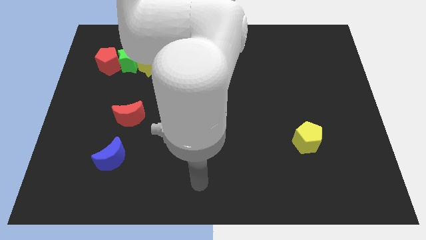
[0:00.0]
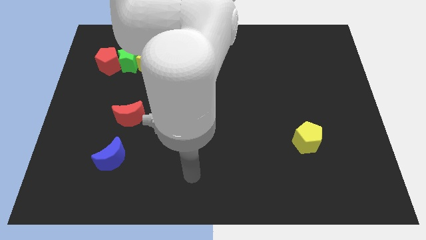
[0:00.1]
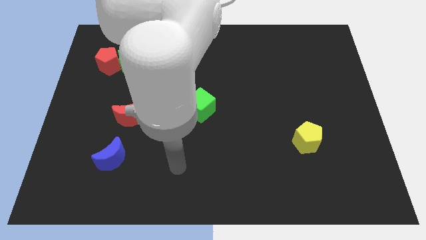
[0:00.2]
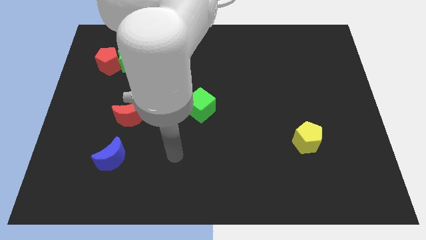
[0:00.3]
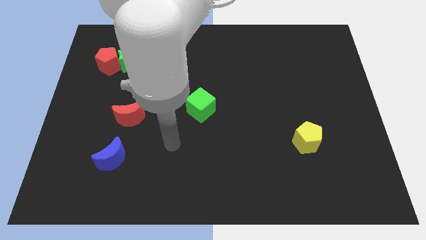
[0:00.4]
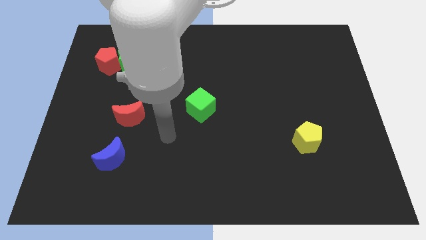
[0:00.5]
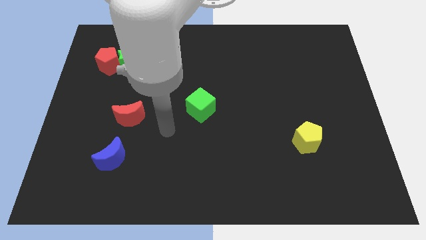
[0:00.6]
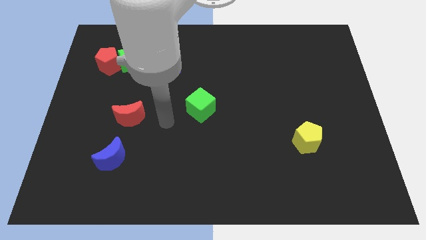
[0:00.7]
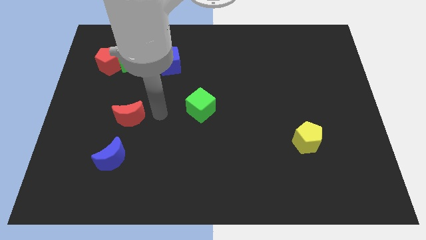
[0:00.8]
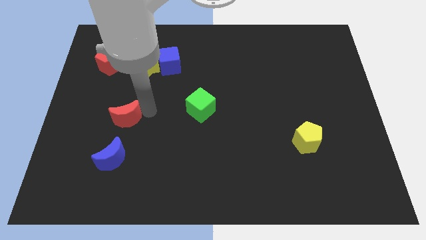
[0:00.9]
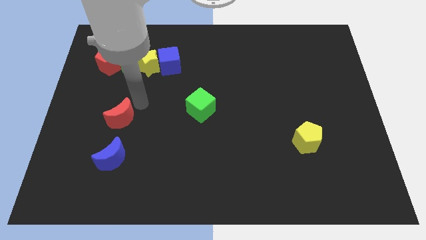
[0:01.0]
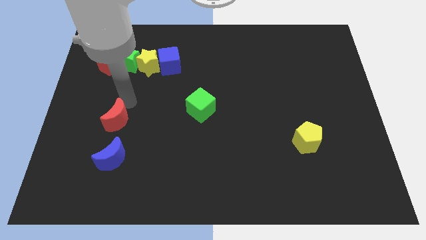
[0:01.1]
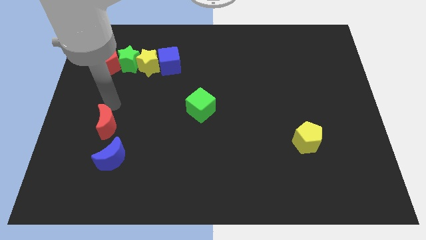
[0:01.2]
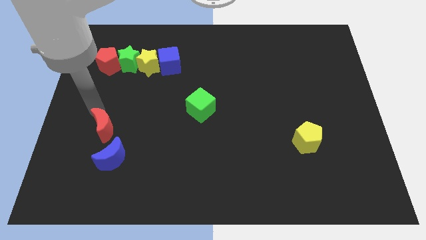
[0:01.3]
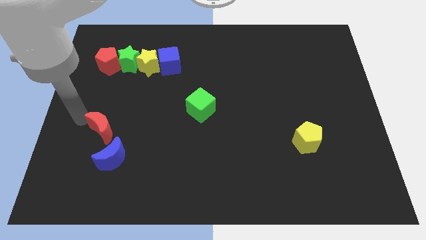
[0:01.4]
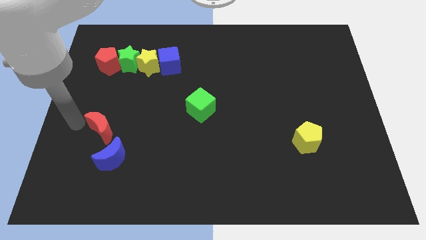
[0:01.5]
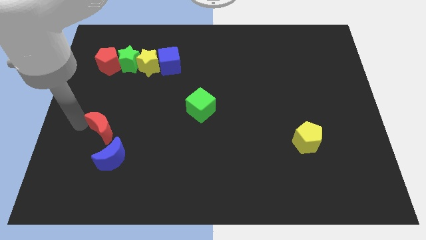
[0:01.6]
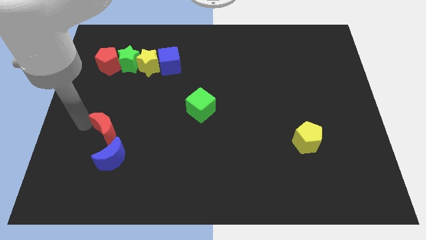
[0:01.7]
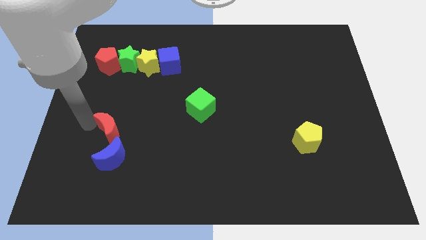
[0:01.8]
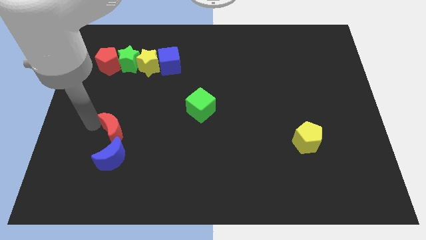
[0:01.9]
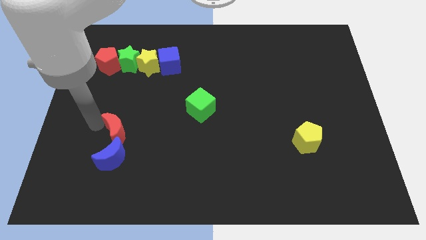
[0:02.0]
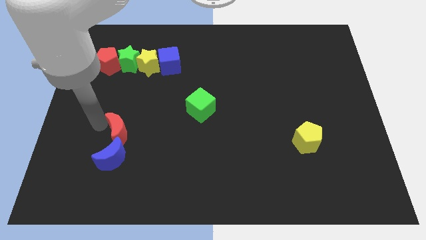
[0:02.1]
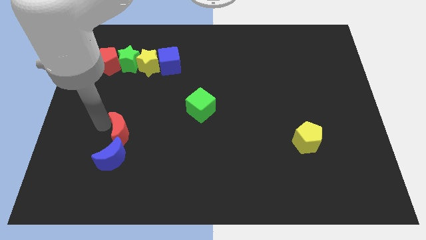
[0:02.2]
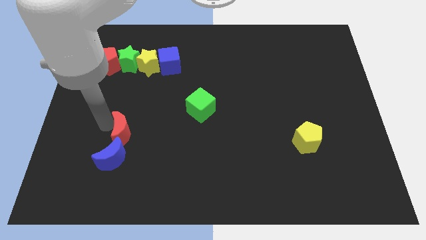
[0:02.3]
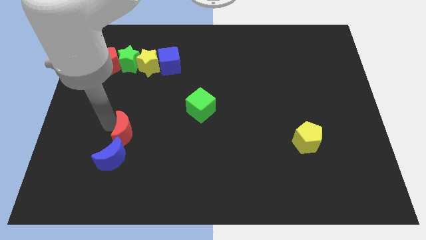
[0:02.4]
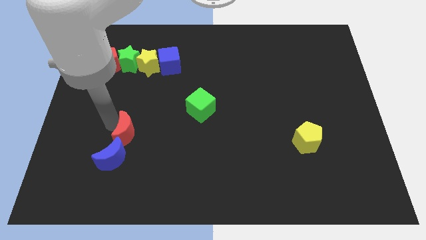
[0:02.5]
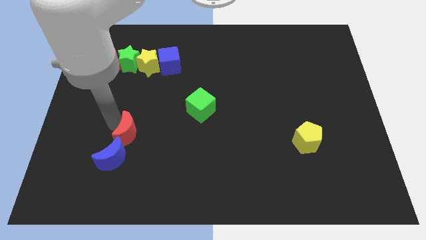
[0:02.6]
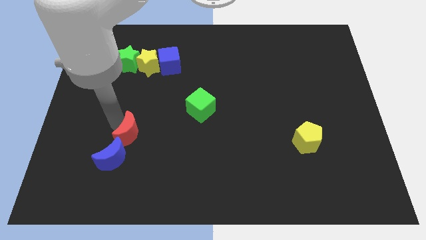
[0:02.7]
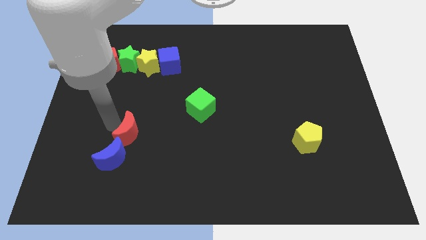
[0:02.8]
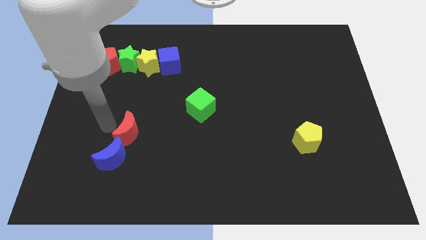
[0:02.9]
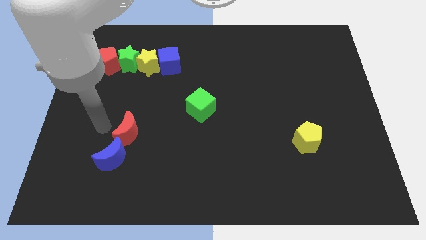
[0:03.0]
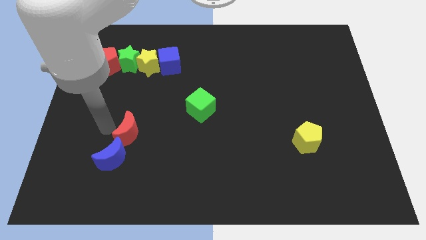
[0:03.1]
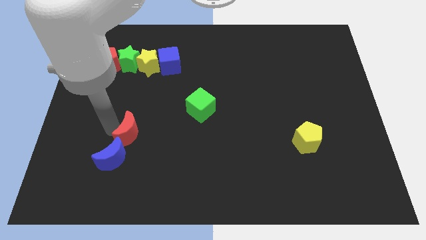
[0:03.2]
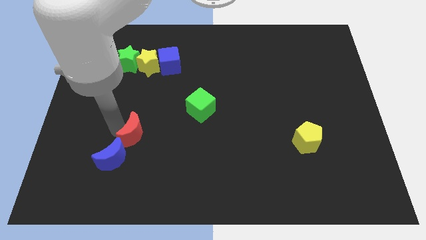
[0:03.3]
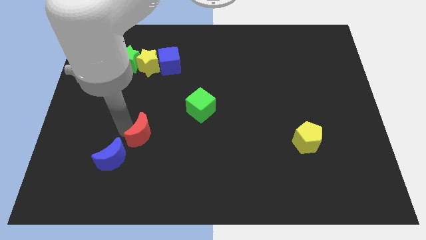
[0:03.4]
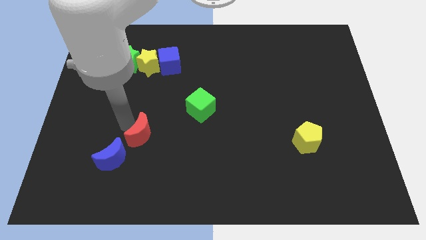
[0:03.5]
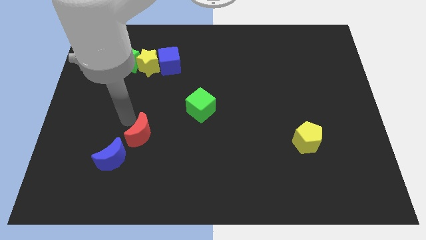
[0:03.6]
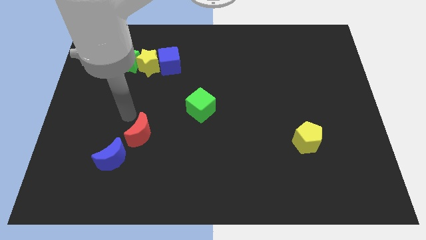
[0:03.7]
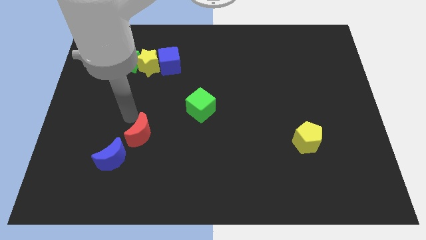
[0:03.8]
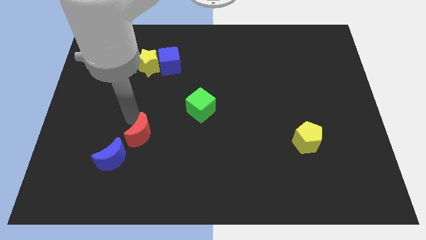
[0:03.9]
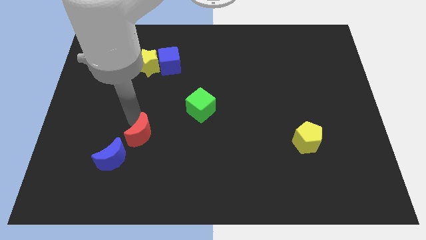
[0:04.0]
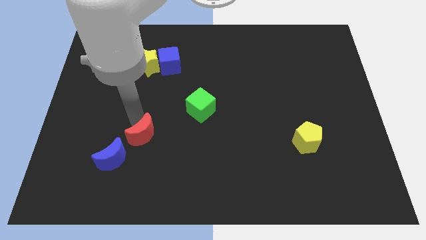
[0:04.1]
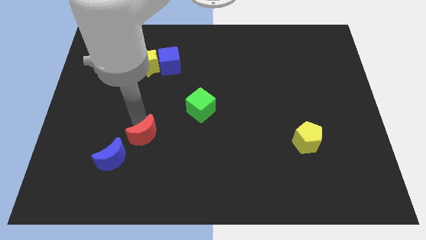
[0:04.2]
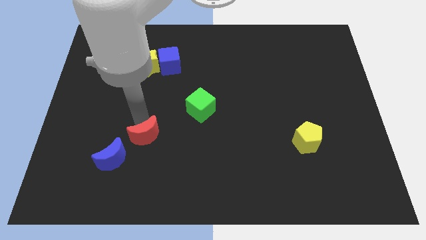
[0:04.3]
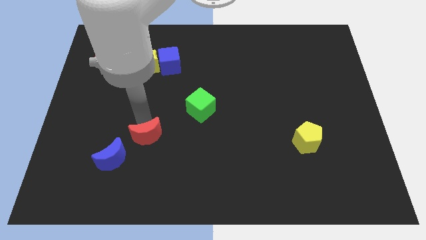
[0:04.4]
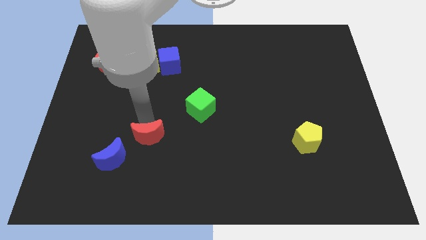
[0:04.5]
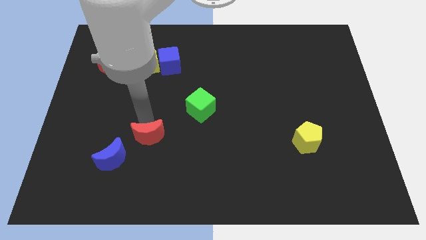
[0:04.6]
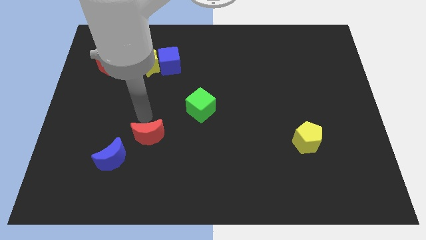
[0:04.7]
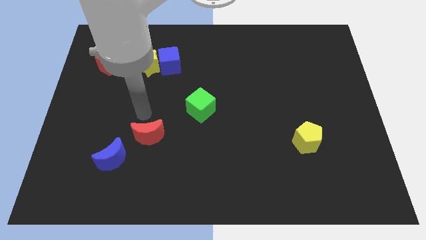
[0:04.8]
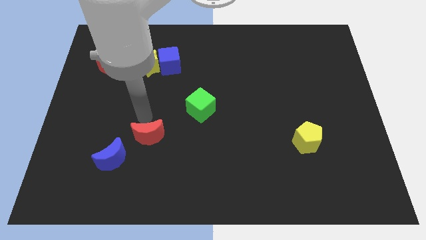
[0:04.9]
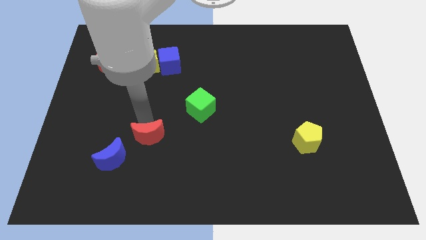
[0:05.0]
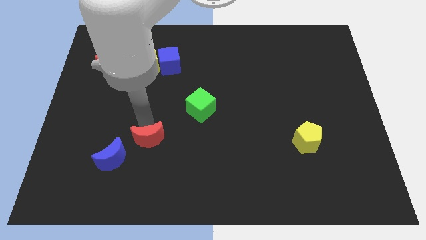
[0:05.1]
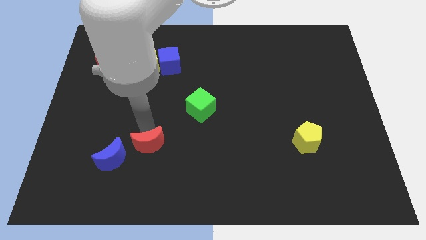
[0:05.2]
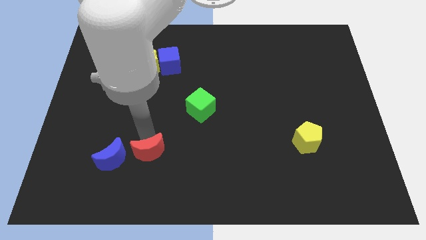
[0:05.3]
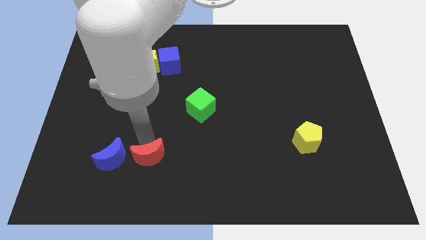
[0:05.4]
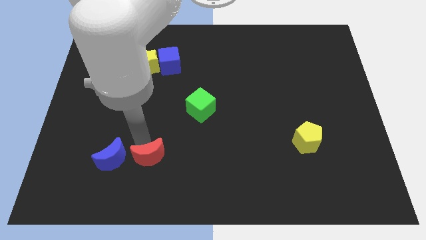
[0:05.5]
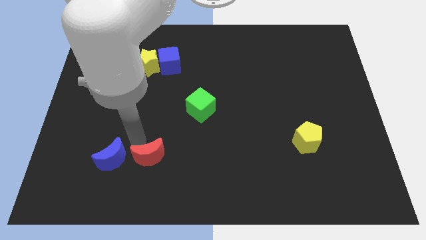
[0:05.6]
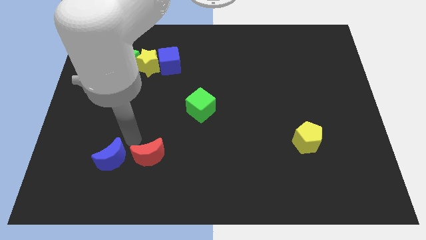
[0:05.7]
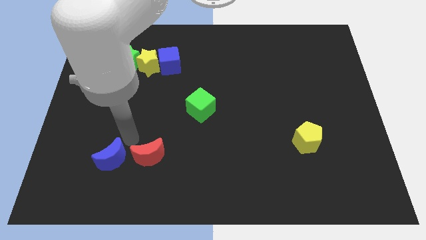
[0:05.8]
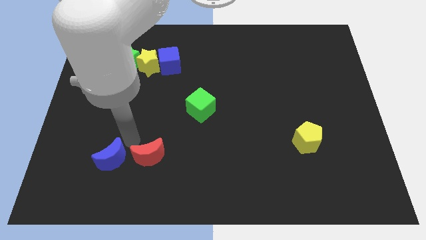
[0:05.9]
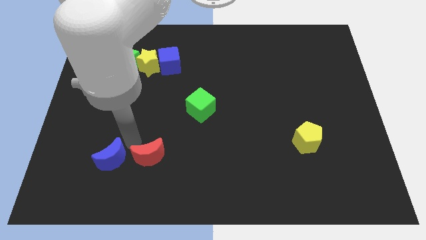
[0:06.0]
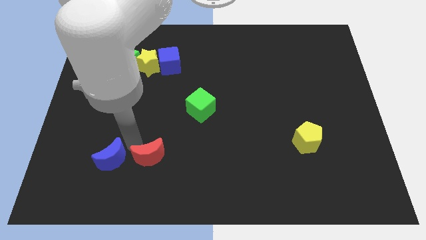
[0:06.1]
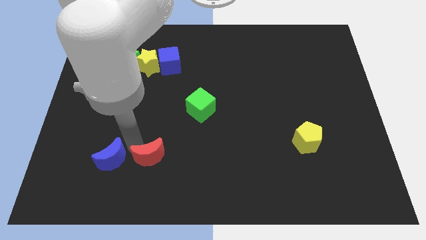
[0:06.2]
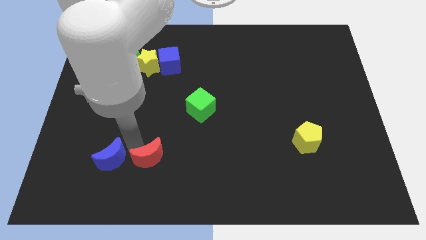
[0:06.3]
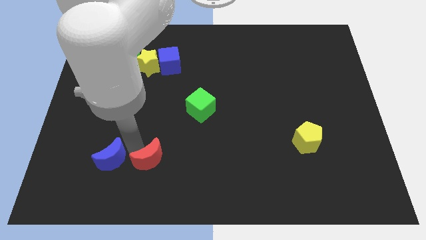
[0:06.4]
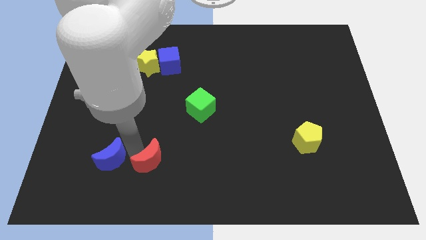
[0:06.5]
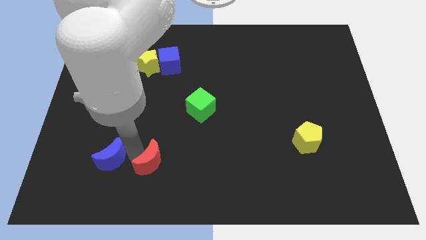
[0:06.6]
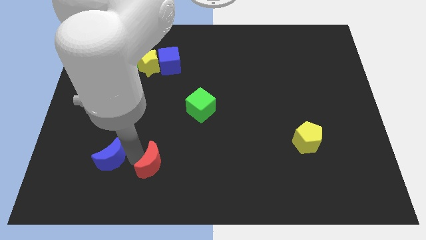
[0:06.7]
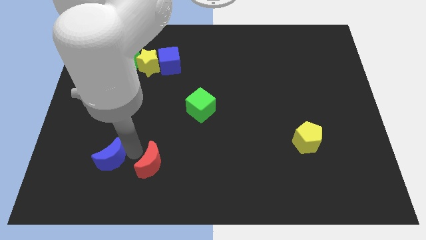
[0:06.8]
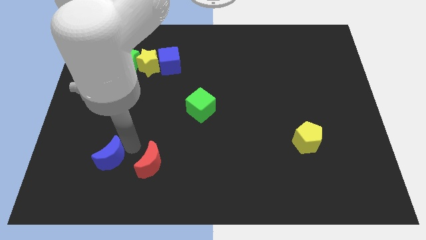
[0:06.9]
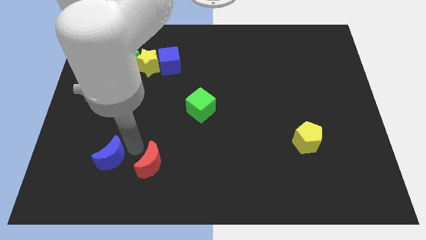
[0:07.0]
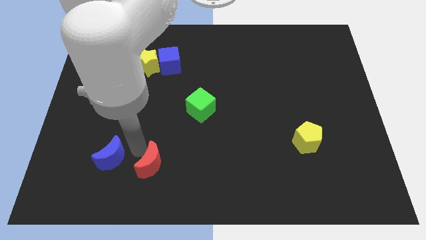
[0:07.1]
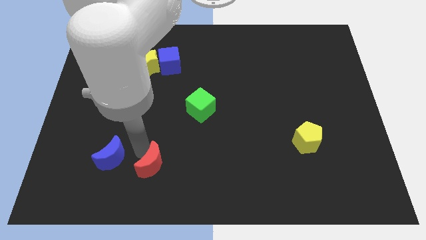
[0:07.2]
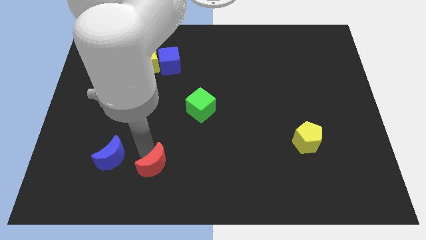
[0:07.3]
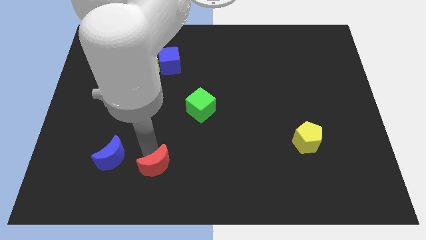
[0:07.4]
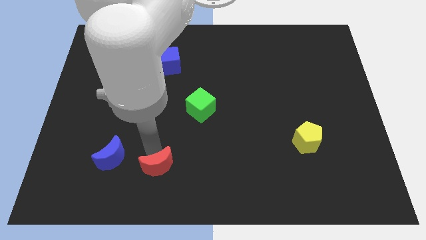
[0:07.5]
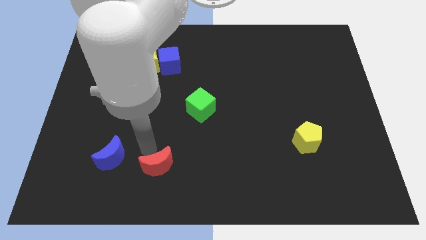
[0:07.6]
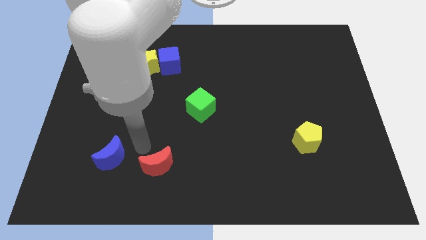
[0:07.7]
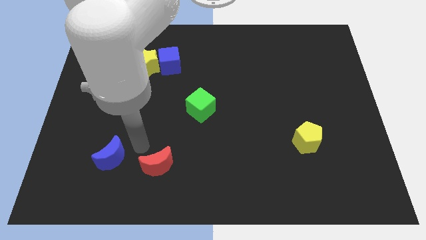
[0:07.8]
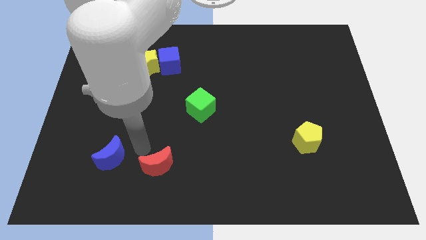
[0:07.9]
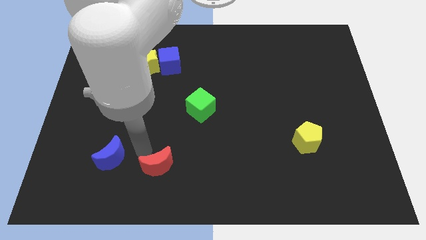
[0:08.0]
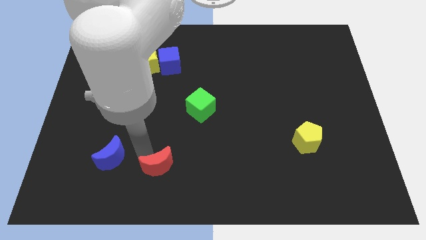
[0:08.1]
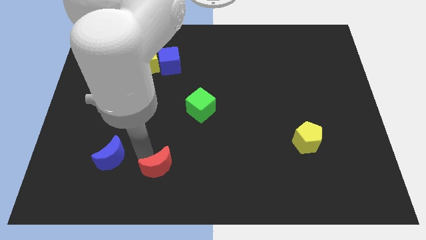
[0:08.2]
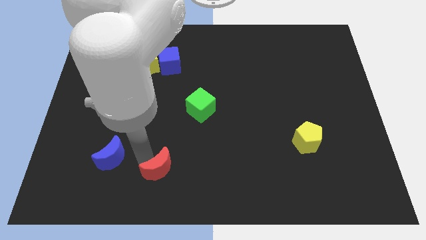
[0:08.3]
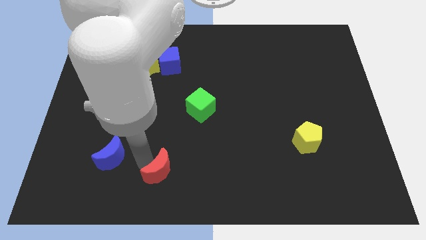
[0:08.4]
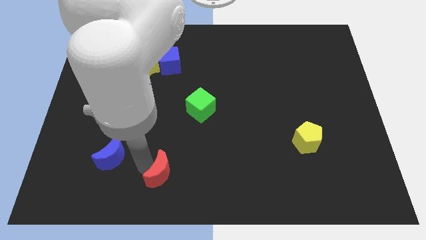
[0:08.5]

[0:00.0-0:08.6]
slide the red moon to the bottom
